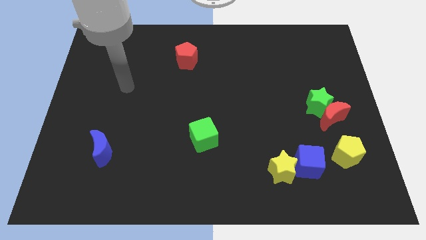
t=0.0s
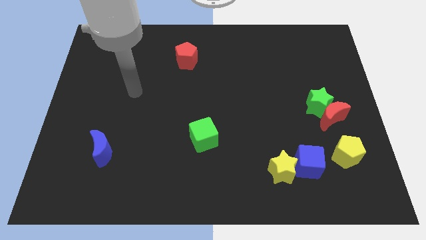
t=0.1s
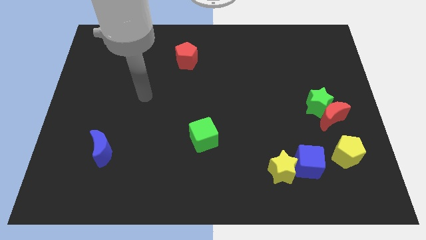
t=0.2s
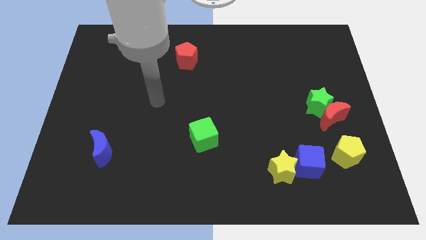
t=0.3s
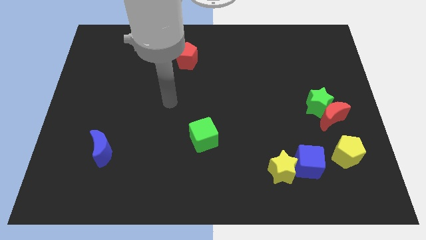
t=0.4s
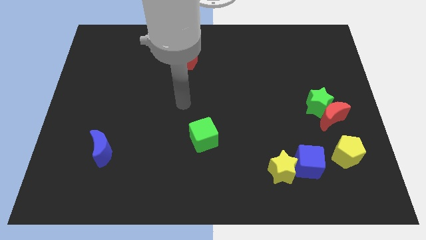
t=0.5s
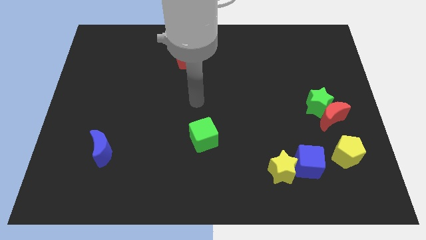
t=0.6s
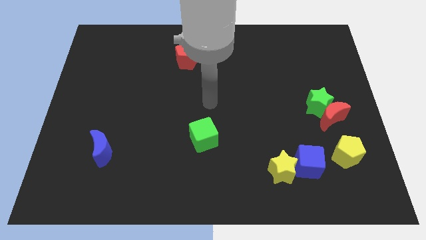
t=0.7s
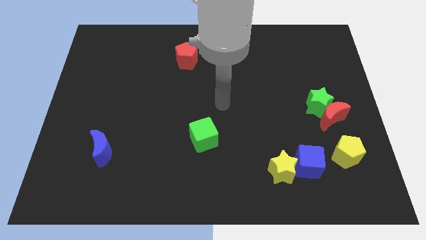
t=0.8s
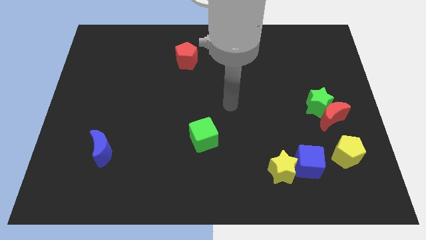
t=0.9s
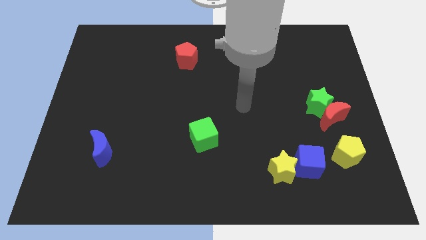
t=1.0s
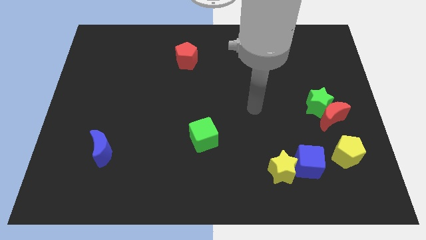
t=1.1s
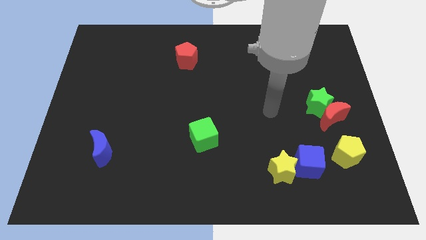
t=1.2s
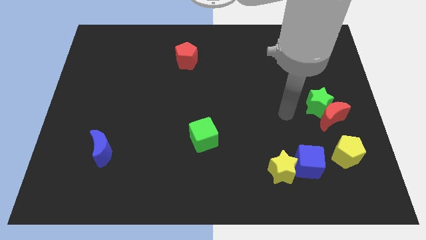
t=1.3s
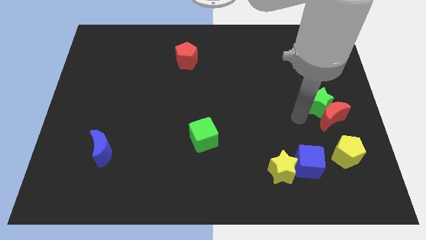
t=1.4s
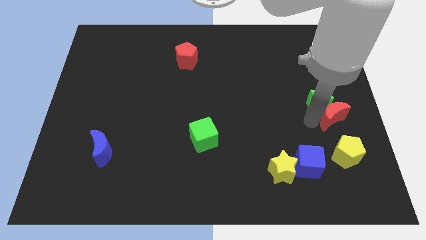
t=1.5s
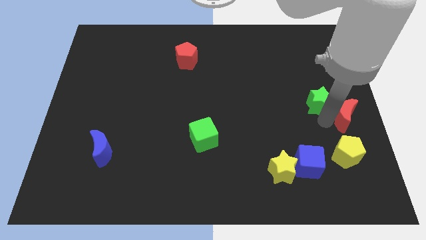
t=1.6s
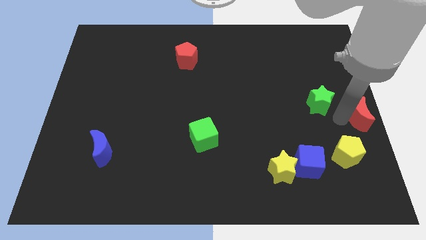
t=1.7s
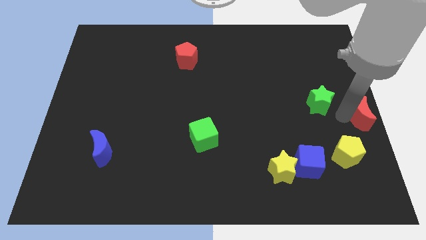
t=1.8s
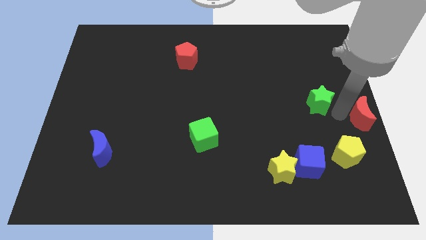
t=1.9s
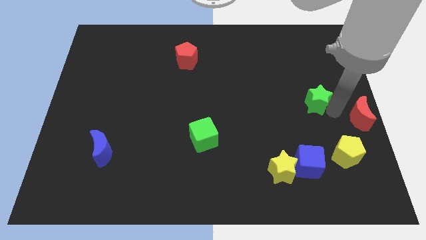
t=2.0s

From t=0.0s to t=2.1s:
pull the green star apart from the red moon

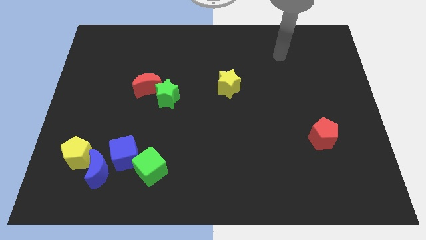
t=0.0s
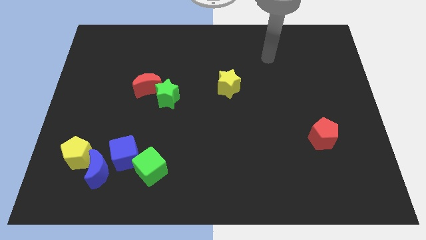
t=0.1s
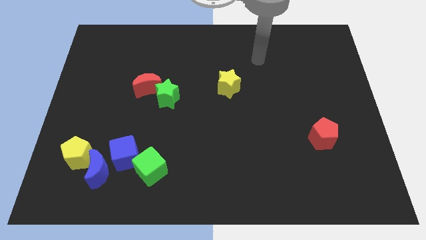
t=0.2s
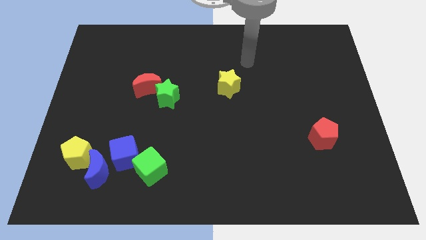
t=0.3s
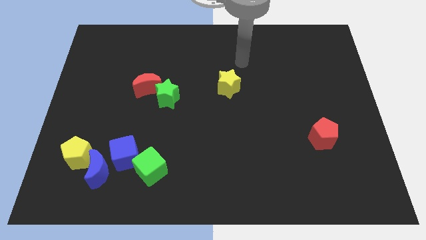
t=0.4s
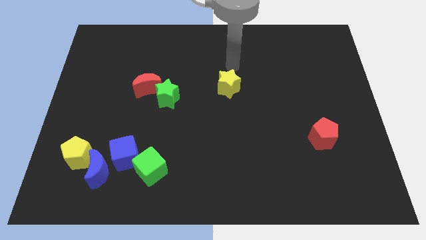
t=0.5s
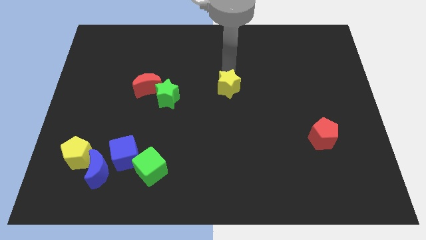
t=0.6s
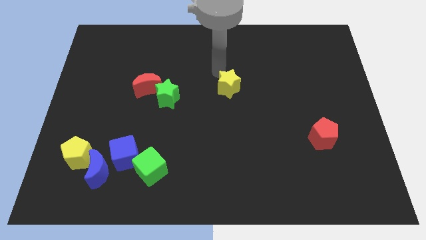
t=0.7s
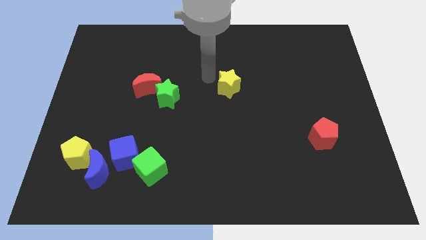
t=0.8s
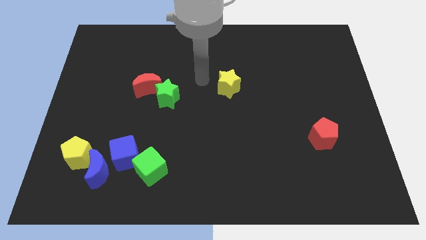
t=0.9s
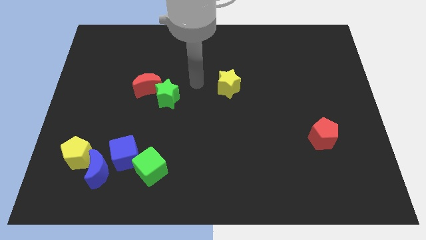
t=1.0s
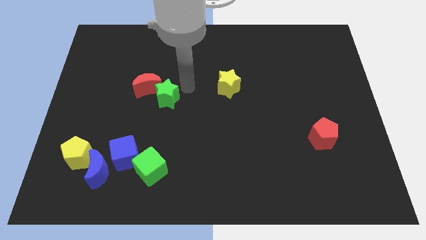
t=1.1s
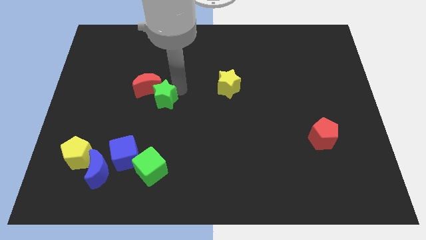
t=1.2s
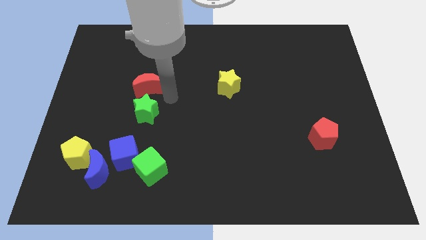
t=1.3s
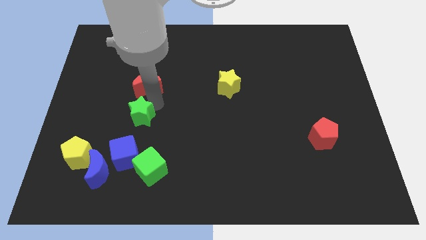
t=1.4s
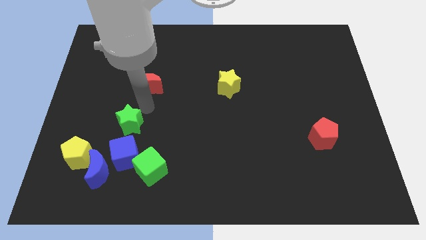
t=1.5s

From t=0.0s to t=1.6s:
separate the red moon from the green star

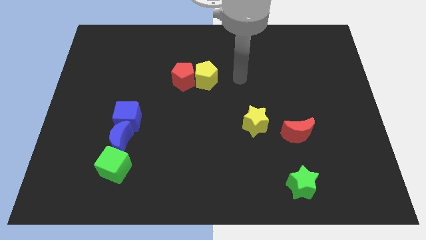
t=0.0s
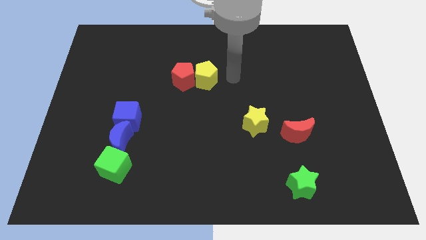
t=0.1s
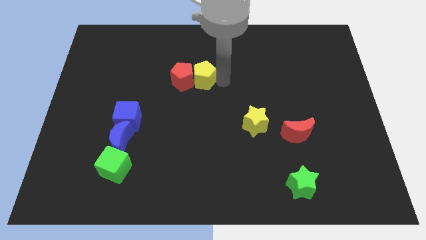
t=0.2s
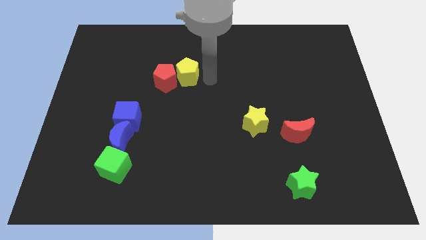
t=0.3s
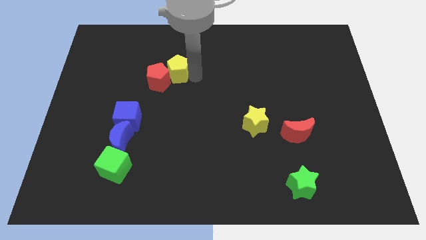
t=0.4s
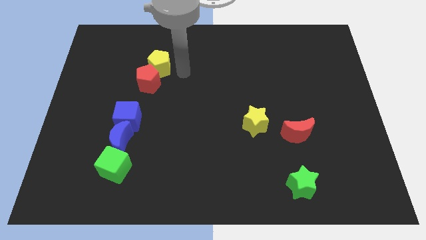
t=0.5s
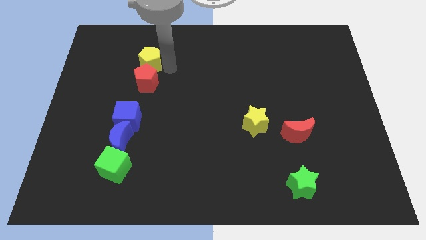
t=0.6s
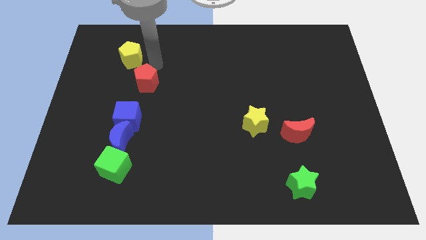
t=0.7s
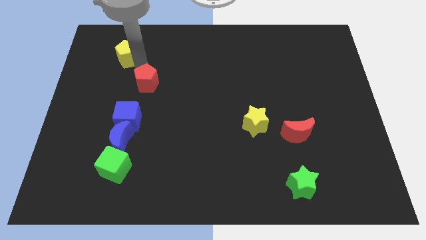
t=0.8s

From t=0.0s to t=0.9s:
separate the red pentagon from the yellow pentagon

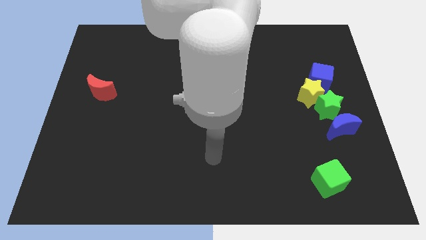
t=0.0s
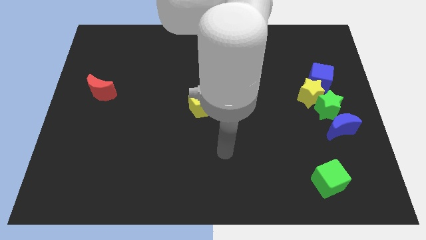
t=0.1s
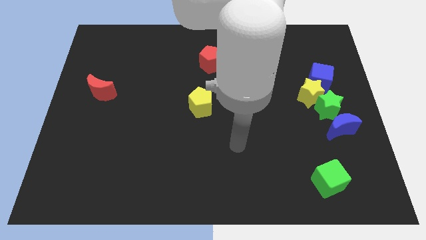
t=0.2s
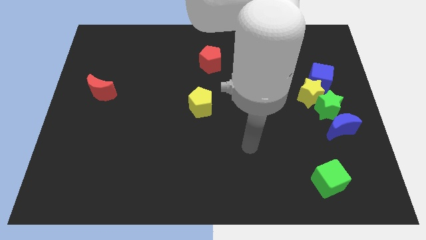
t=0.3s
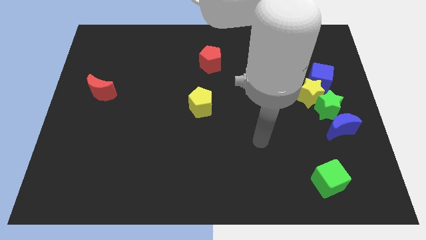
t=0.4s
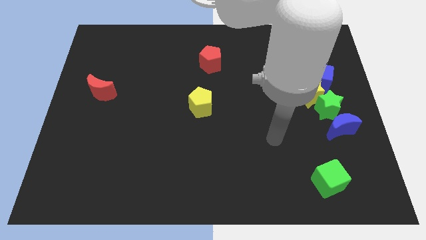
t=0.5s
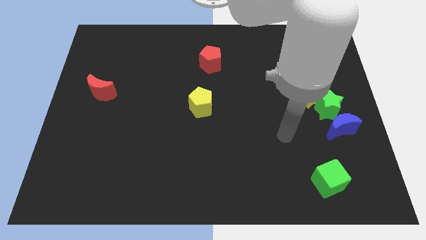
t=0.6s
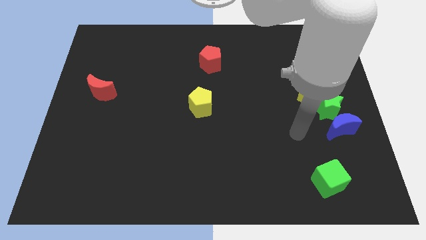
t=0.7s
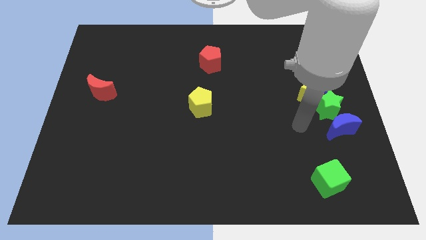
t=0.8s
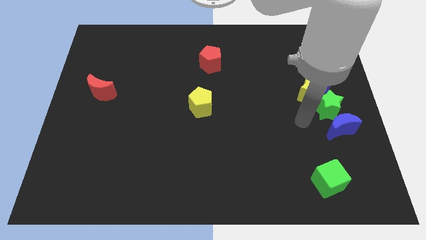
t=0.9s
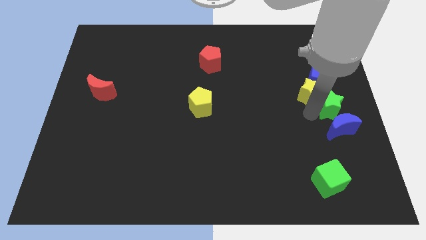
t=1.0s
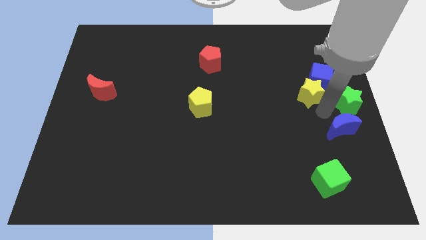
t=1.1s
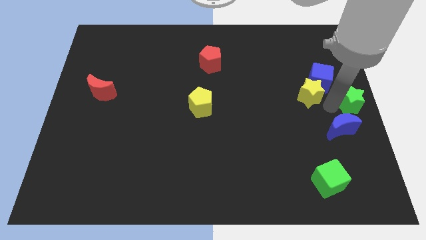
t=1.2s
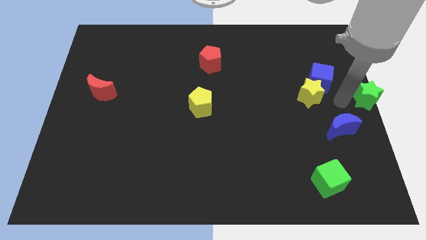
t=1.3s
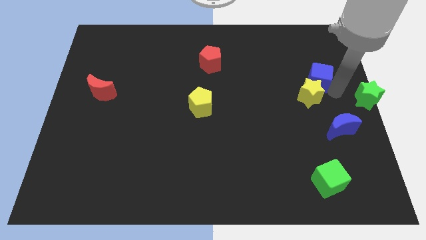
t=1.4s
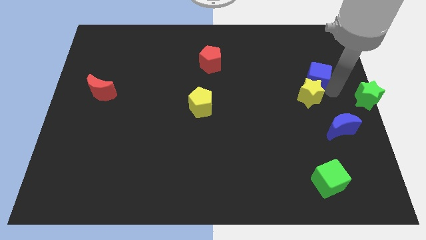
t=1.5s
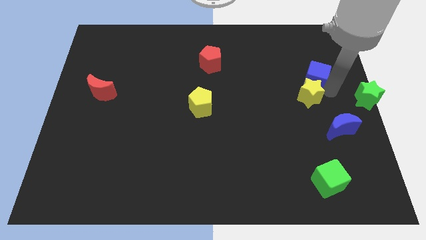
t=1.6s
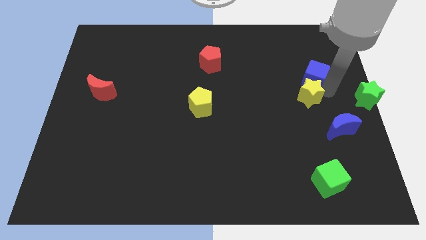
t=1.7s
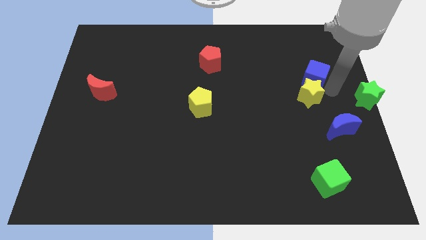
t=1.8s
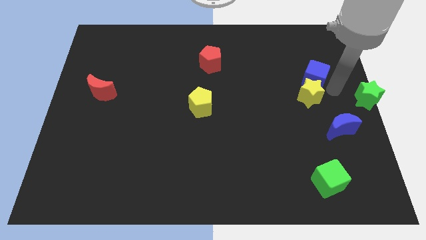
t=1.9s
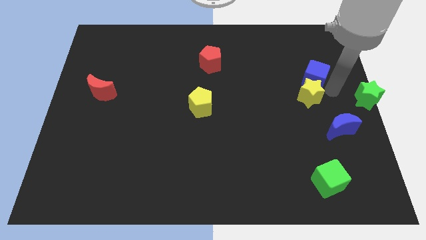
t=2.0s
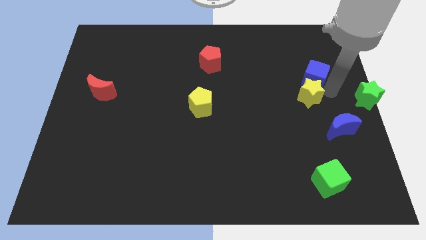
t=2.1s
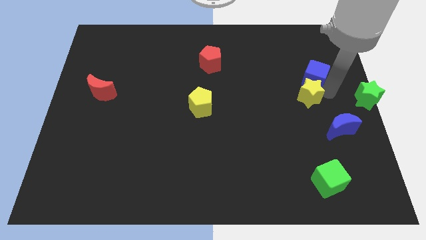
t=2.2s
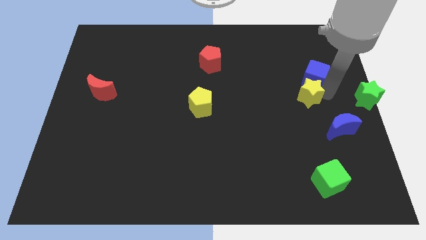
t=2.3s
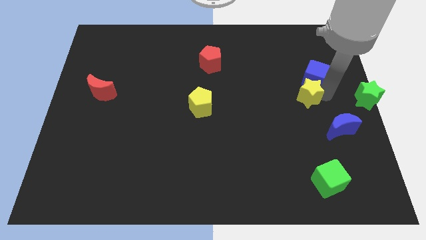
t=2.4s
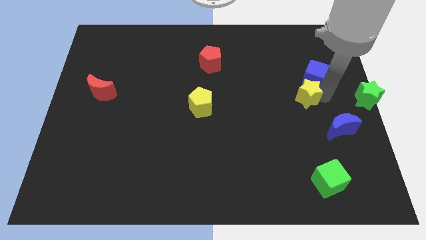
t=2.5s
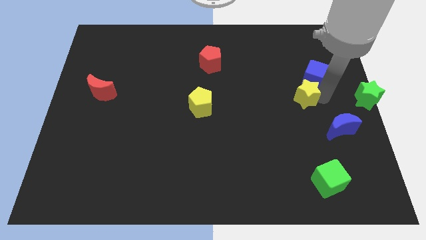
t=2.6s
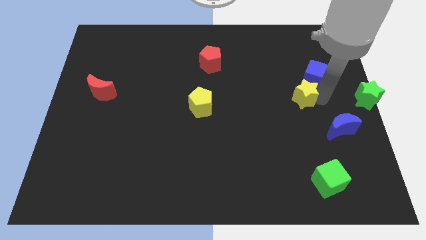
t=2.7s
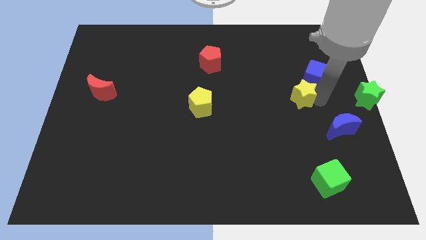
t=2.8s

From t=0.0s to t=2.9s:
separate the yellow star from the green star and blue cube

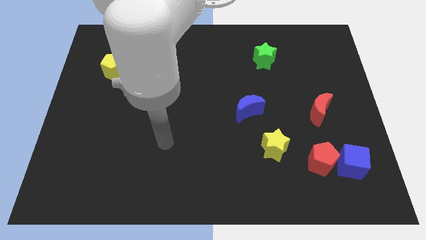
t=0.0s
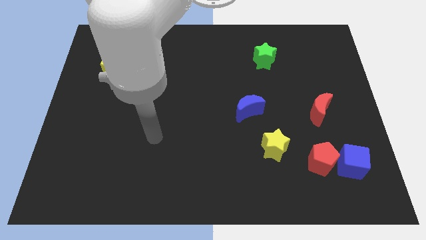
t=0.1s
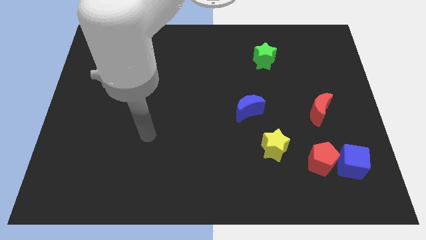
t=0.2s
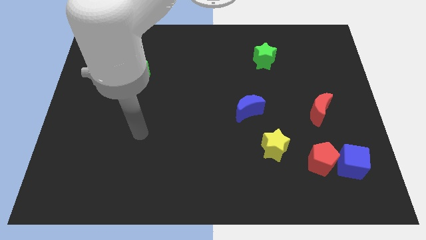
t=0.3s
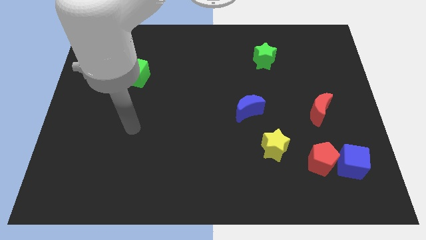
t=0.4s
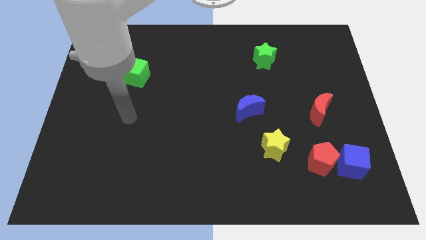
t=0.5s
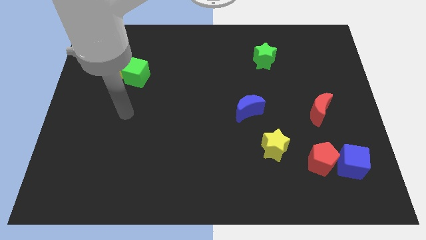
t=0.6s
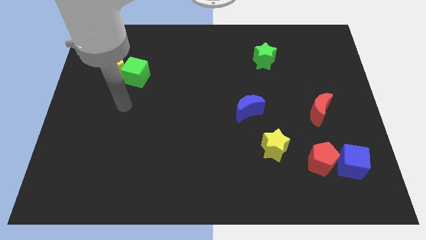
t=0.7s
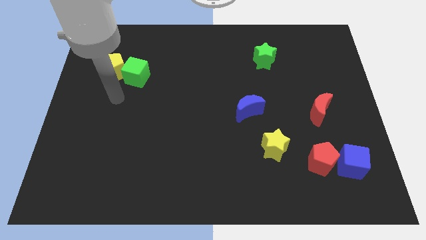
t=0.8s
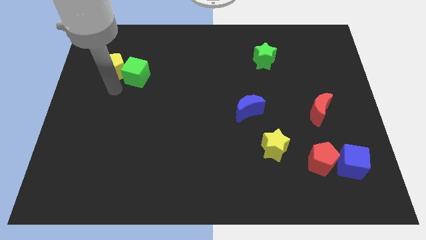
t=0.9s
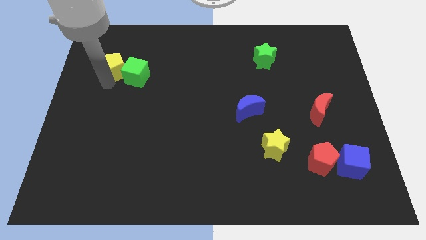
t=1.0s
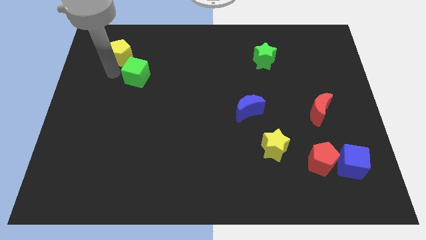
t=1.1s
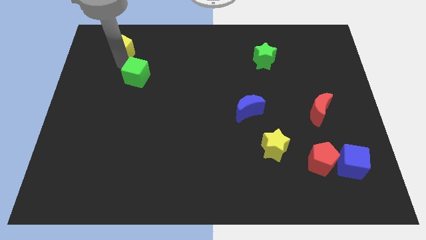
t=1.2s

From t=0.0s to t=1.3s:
move the green cube away from the yellow pentagon

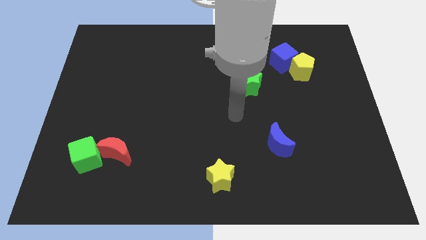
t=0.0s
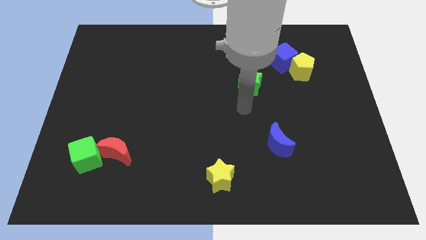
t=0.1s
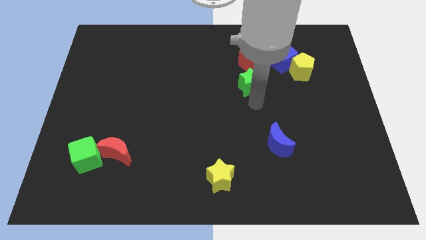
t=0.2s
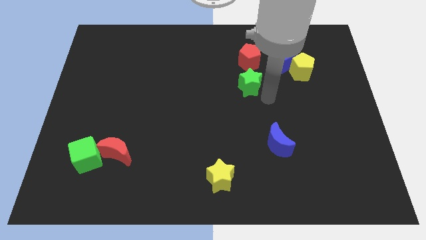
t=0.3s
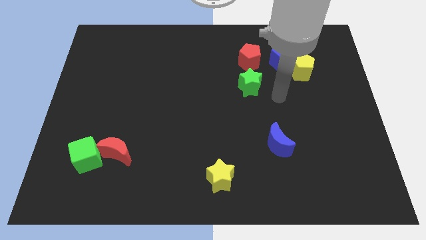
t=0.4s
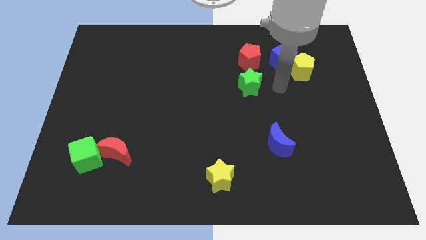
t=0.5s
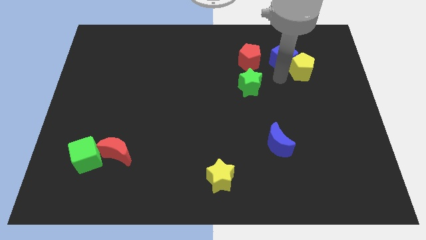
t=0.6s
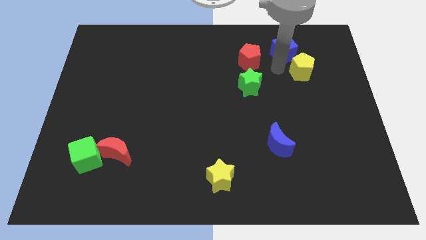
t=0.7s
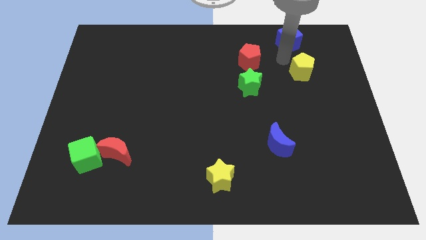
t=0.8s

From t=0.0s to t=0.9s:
separate the yellow pentagon from the blue cube
